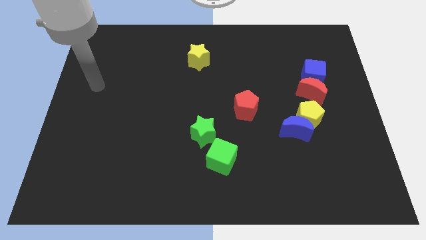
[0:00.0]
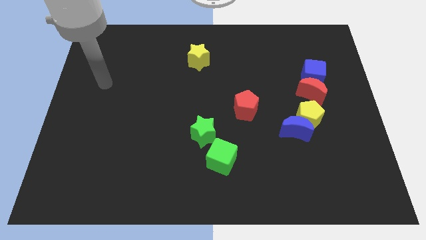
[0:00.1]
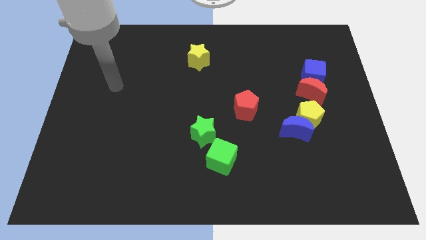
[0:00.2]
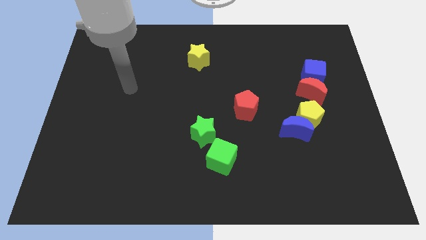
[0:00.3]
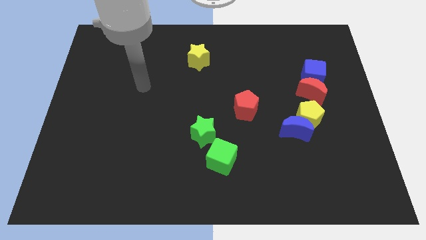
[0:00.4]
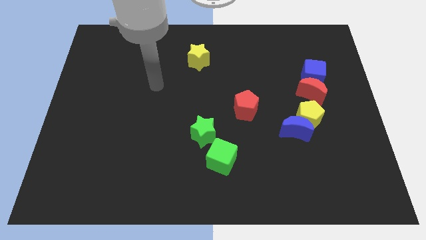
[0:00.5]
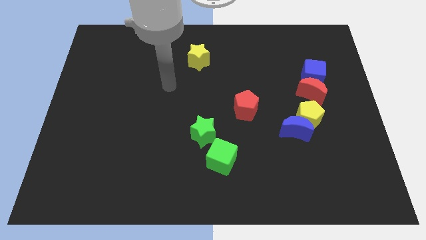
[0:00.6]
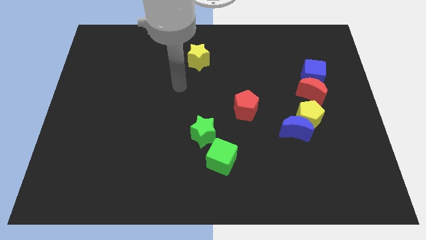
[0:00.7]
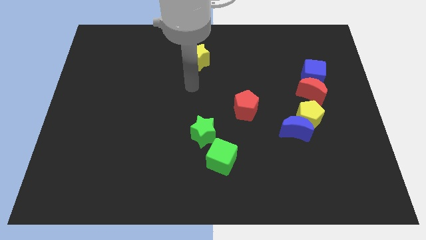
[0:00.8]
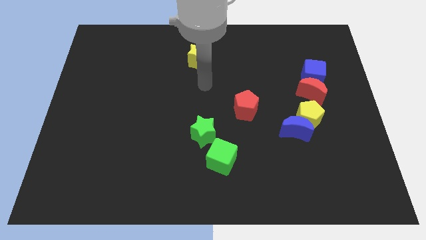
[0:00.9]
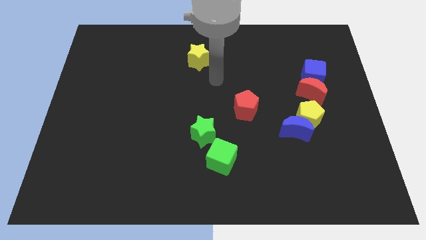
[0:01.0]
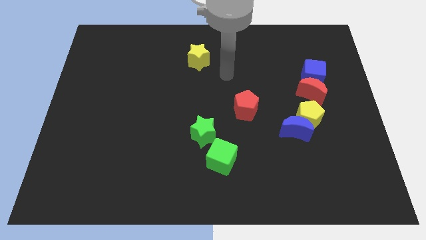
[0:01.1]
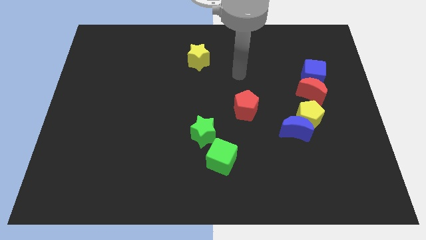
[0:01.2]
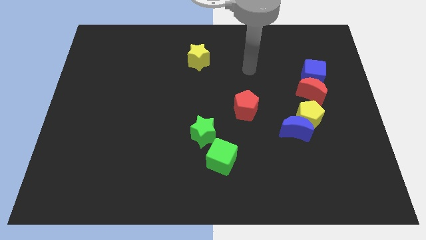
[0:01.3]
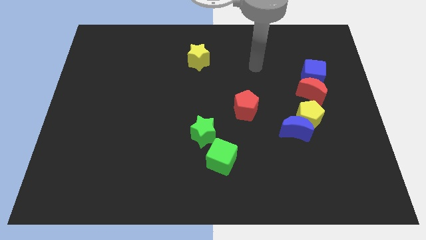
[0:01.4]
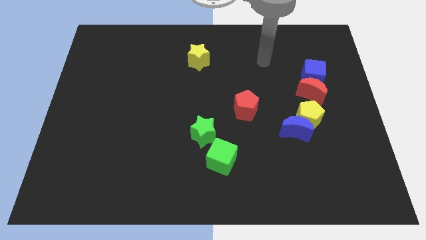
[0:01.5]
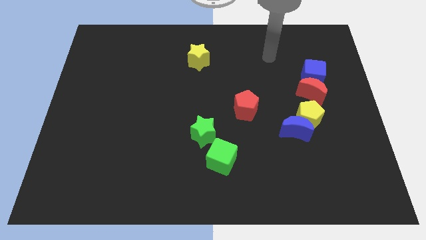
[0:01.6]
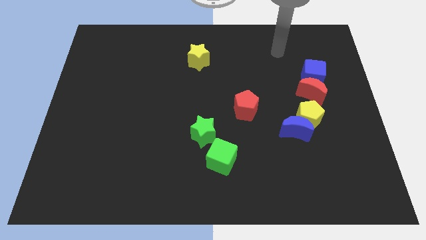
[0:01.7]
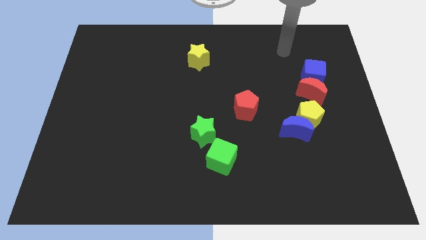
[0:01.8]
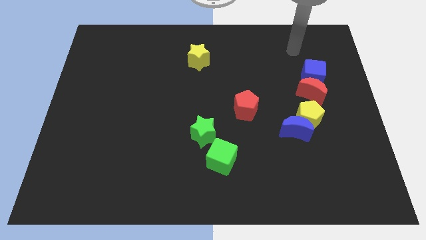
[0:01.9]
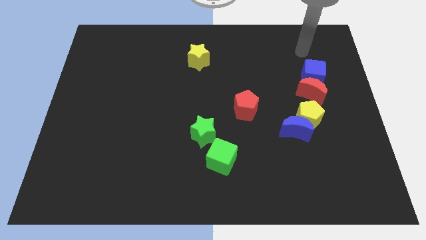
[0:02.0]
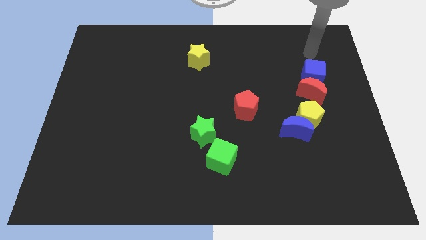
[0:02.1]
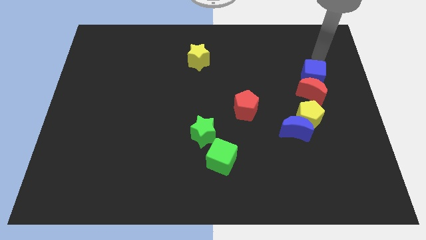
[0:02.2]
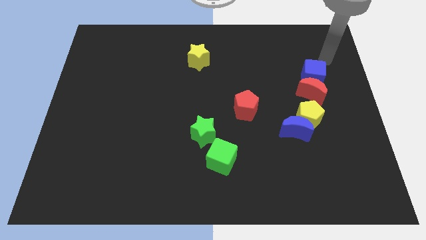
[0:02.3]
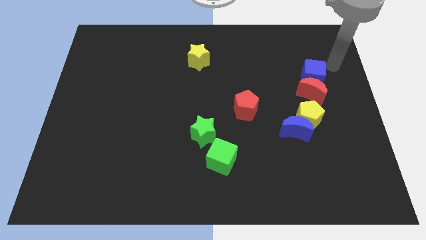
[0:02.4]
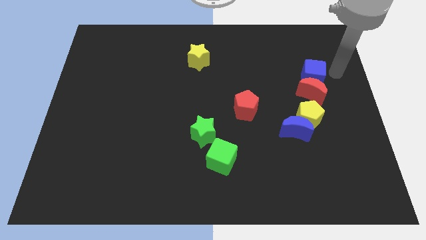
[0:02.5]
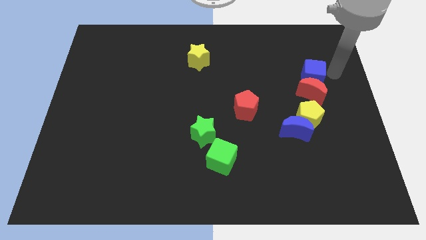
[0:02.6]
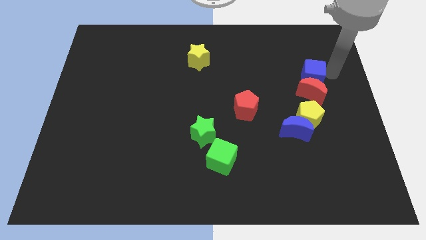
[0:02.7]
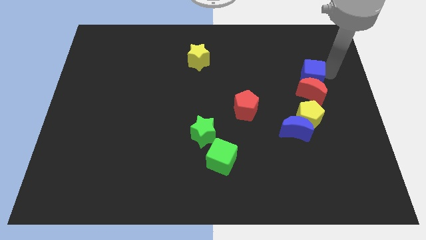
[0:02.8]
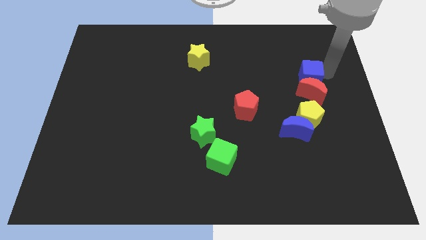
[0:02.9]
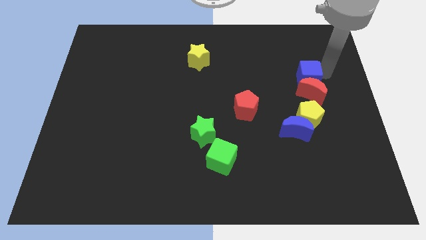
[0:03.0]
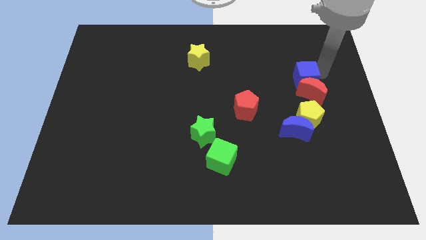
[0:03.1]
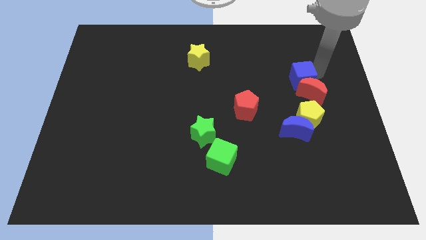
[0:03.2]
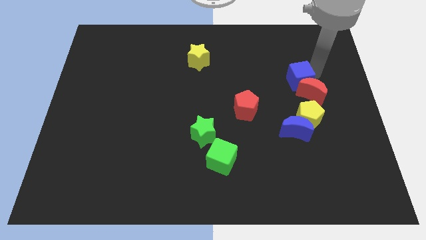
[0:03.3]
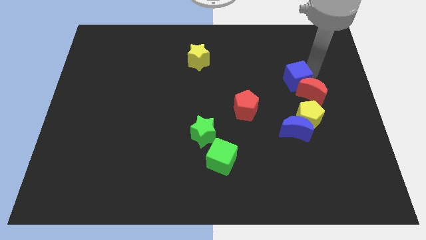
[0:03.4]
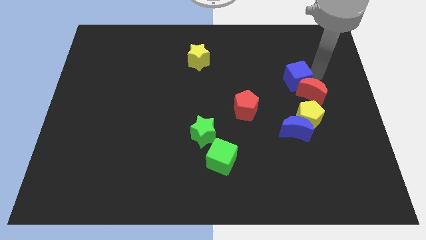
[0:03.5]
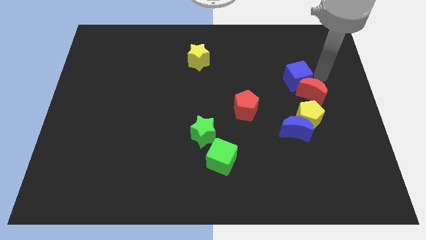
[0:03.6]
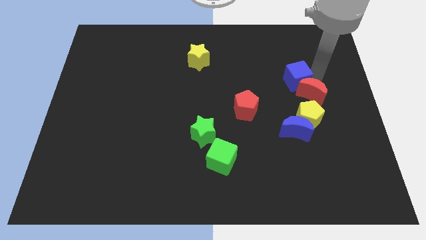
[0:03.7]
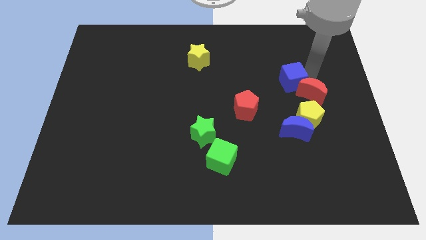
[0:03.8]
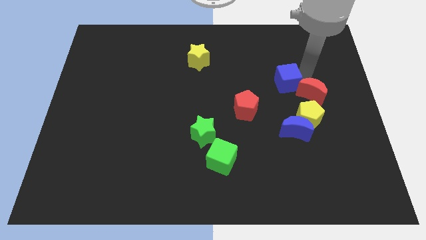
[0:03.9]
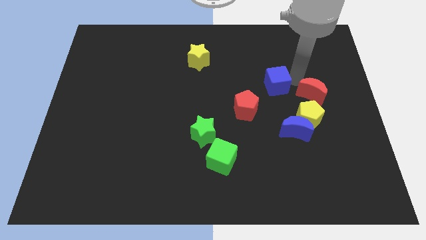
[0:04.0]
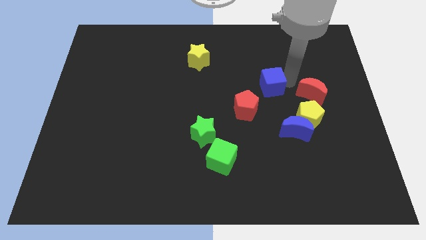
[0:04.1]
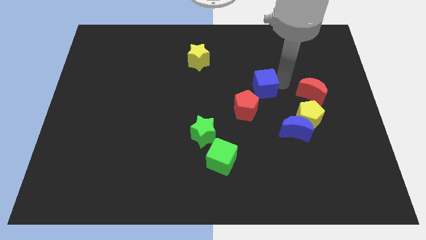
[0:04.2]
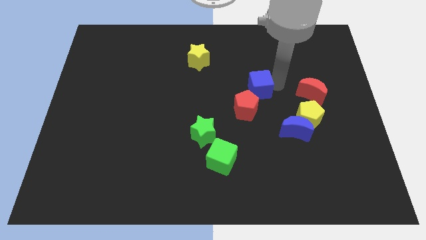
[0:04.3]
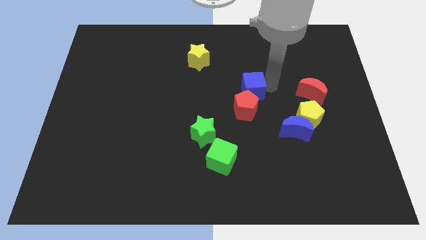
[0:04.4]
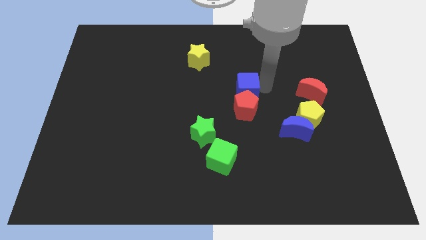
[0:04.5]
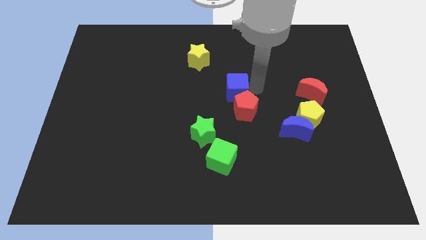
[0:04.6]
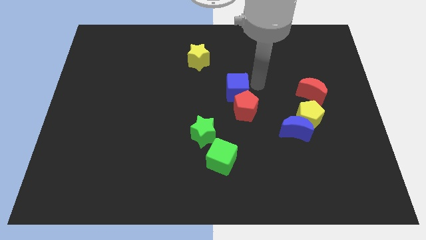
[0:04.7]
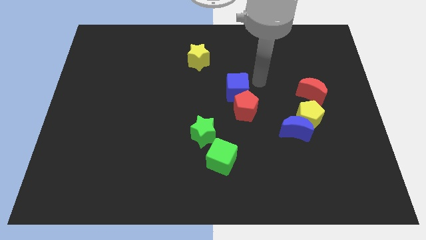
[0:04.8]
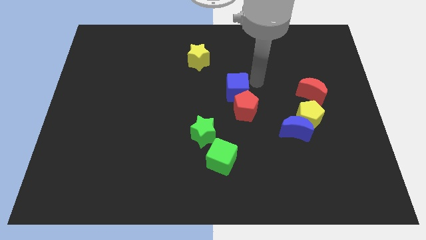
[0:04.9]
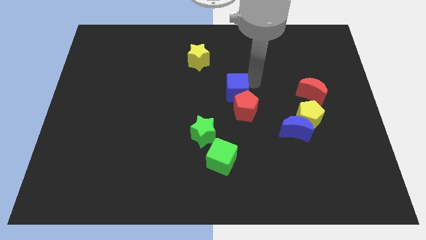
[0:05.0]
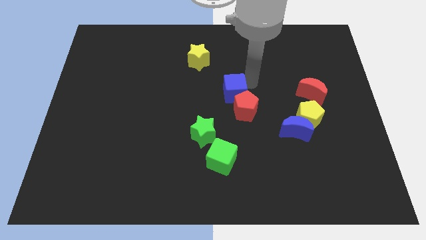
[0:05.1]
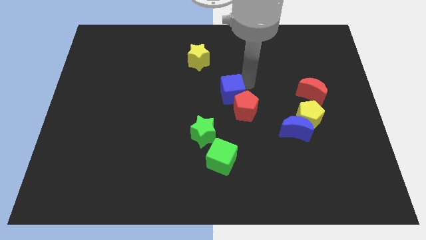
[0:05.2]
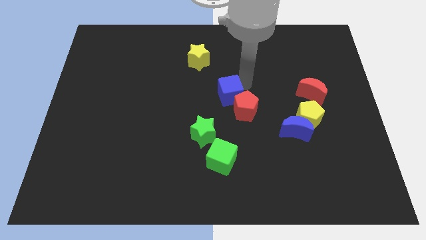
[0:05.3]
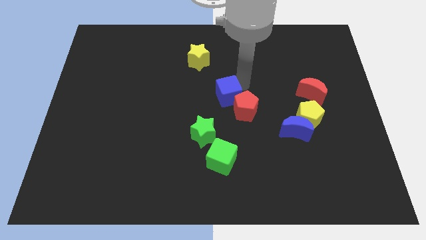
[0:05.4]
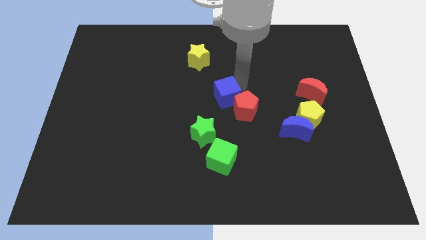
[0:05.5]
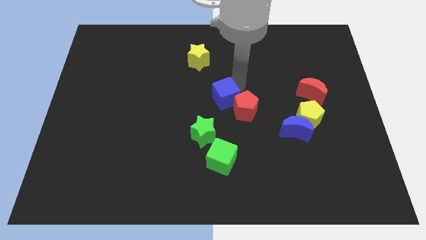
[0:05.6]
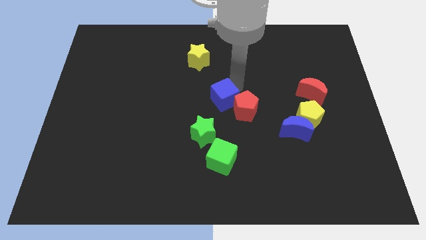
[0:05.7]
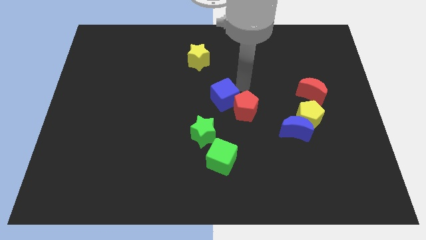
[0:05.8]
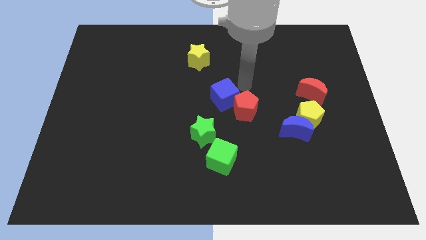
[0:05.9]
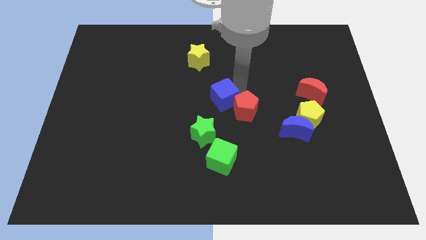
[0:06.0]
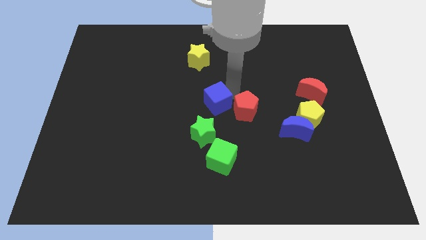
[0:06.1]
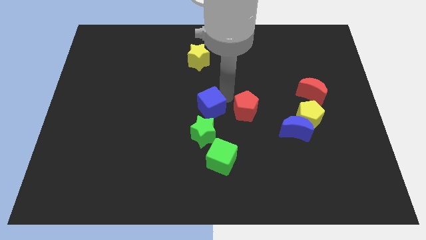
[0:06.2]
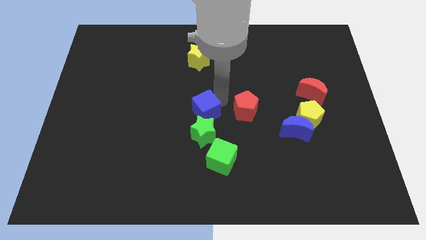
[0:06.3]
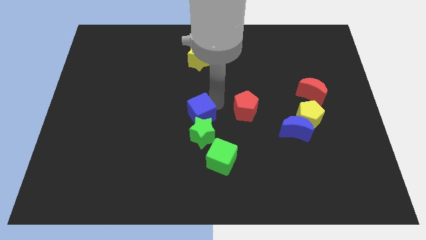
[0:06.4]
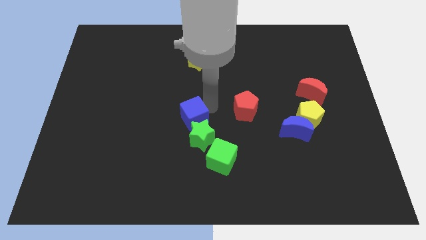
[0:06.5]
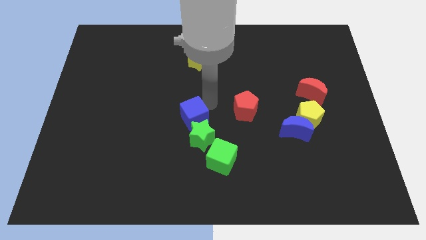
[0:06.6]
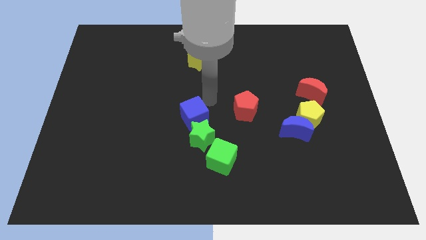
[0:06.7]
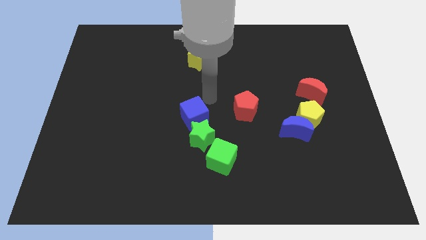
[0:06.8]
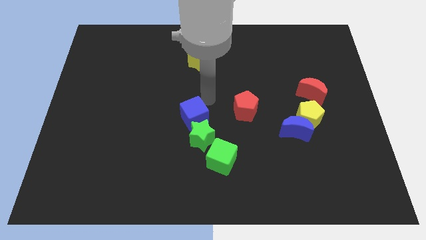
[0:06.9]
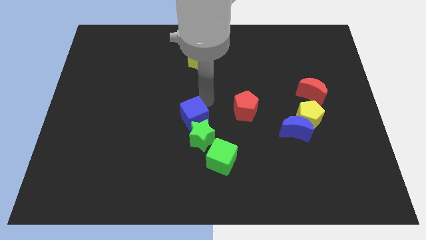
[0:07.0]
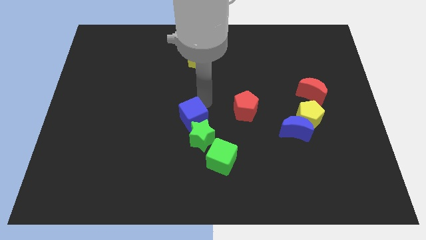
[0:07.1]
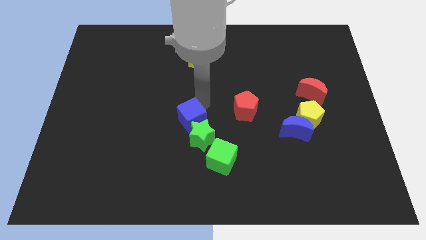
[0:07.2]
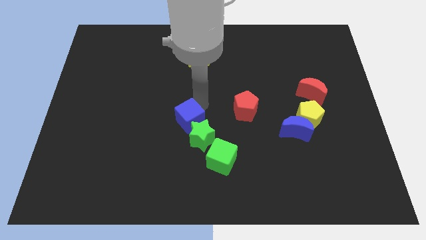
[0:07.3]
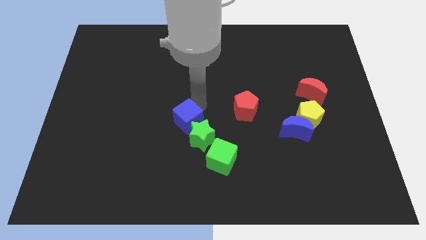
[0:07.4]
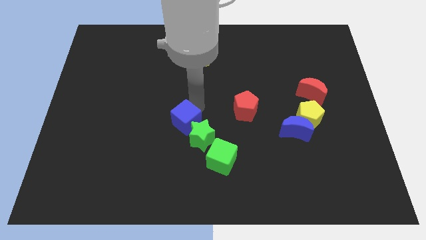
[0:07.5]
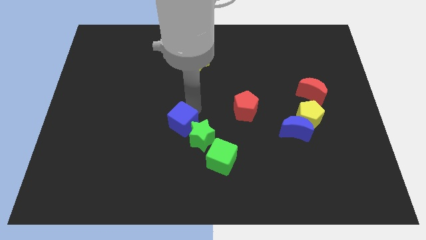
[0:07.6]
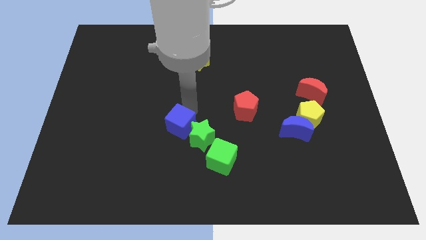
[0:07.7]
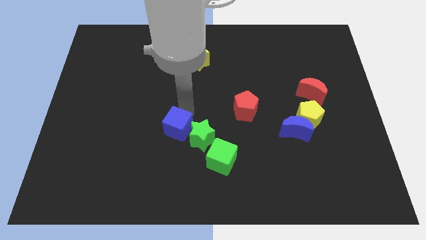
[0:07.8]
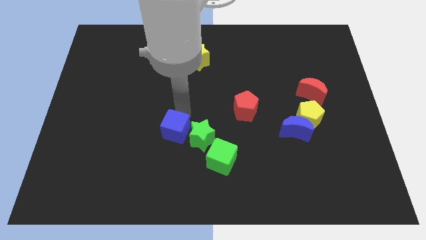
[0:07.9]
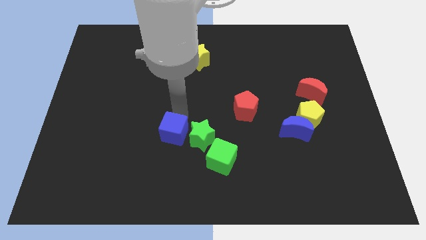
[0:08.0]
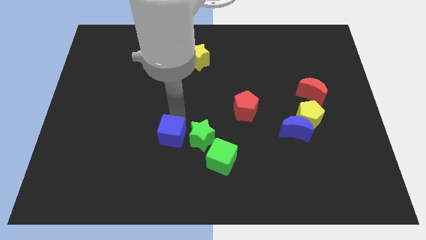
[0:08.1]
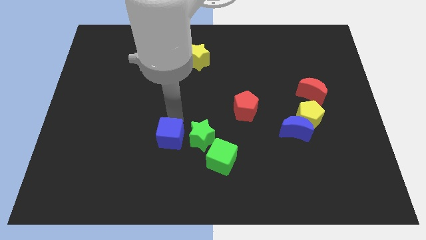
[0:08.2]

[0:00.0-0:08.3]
move the blue cube diagonally down and to the left of the green star
